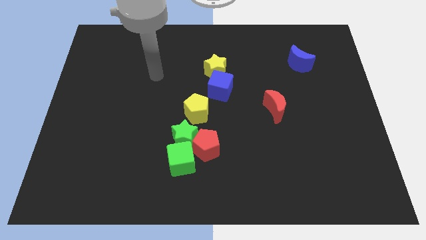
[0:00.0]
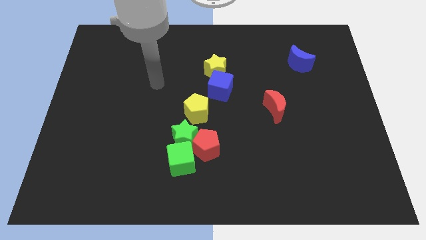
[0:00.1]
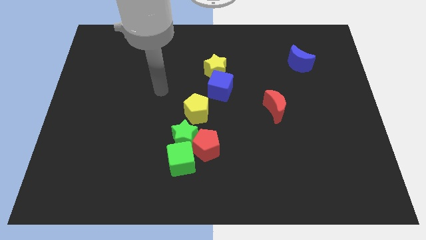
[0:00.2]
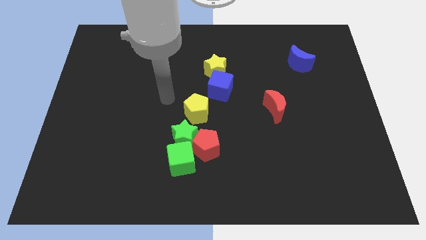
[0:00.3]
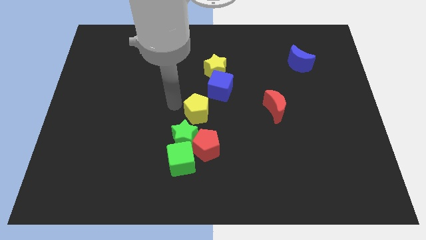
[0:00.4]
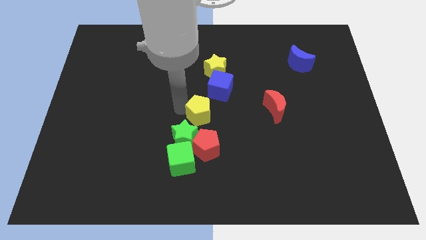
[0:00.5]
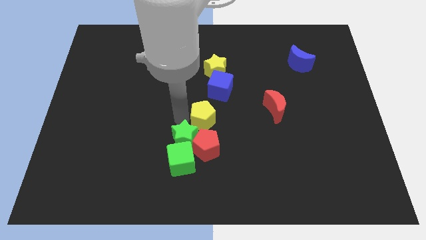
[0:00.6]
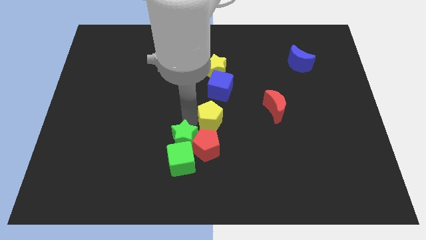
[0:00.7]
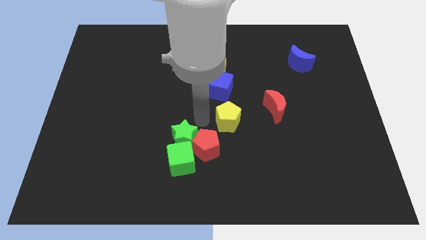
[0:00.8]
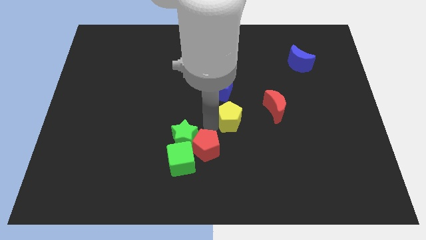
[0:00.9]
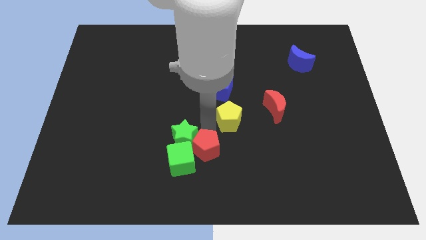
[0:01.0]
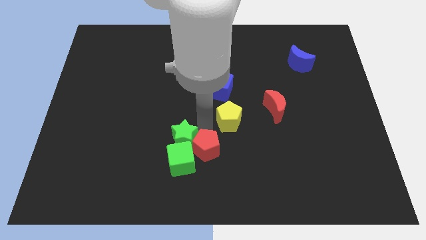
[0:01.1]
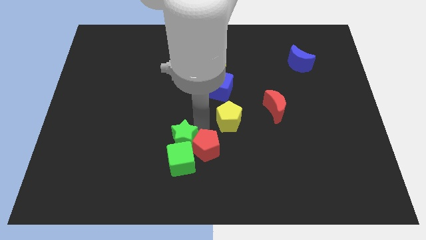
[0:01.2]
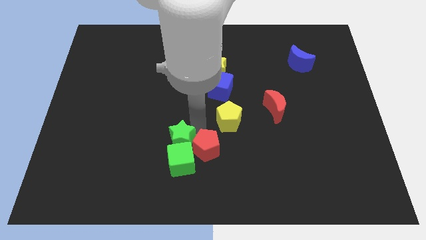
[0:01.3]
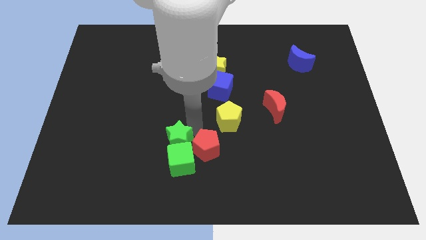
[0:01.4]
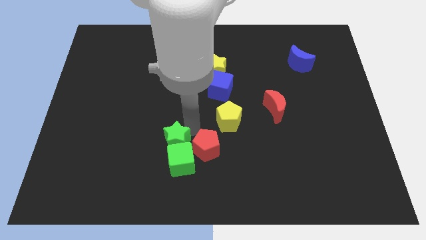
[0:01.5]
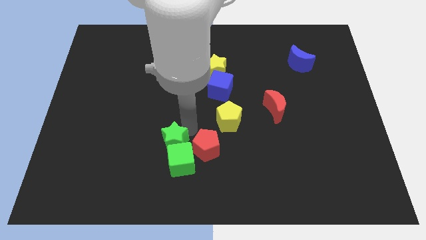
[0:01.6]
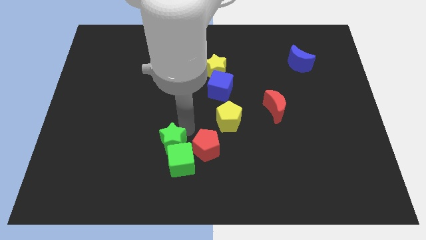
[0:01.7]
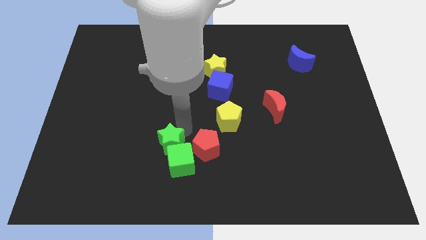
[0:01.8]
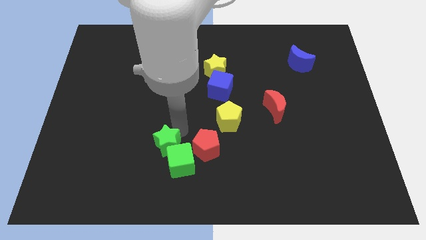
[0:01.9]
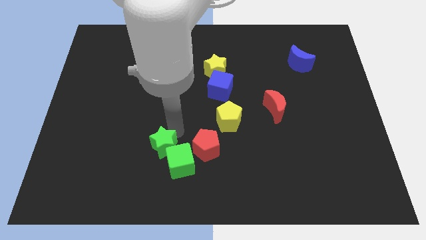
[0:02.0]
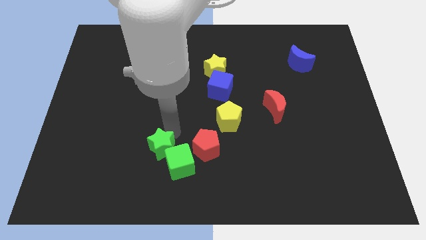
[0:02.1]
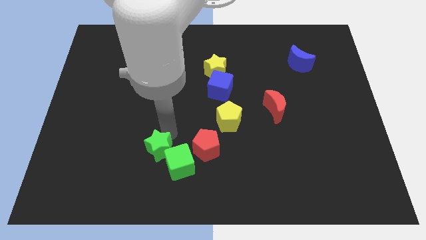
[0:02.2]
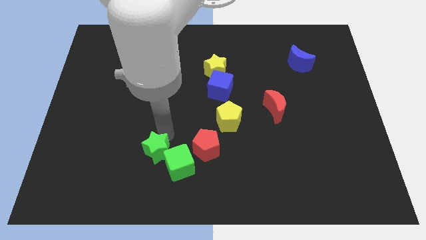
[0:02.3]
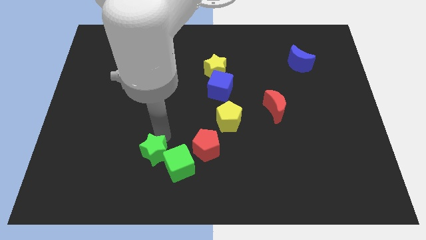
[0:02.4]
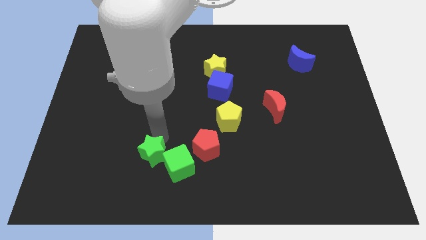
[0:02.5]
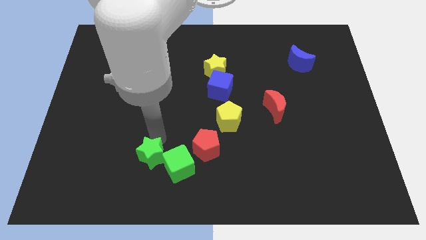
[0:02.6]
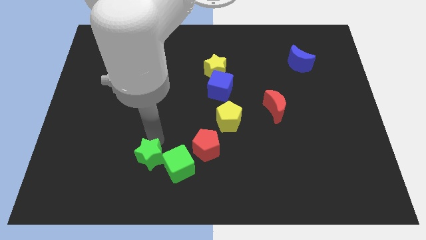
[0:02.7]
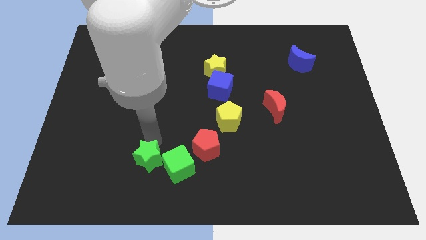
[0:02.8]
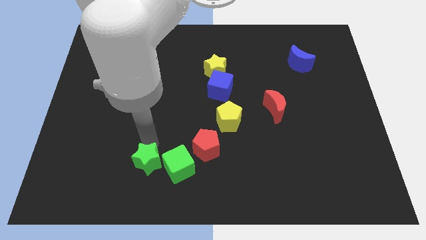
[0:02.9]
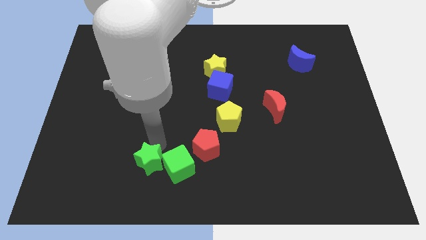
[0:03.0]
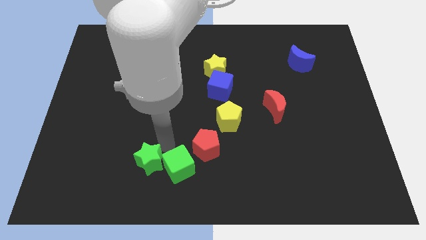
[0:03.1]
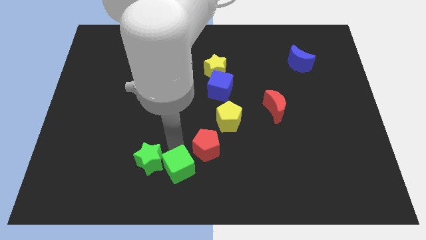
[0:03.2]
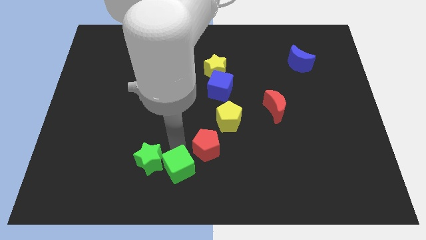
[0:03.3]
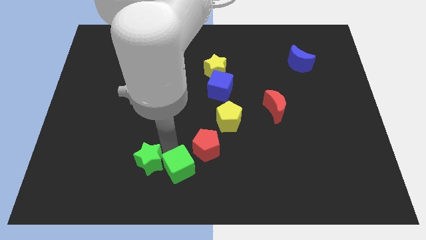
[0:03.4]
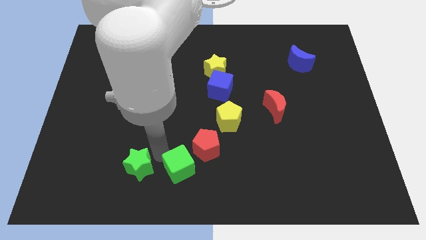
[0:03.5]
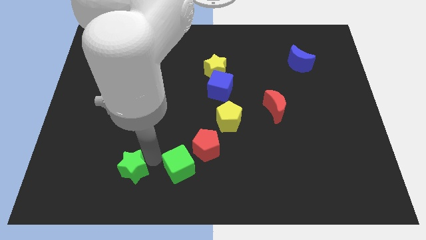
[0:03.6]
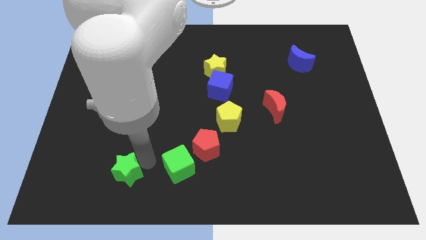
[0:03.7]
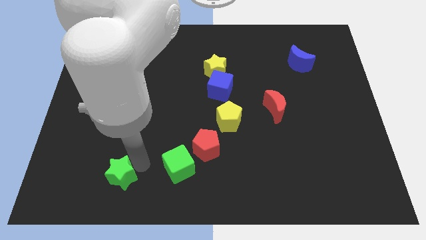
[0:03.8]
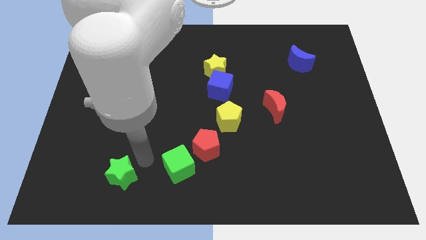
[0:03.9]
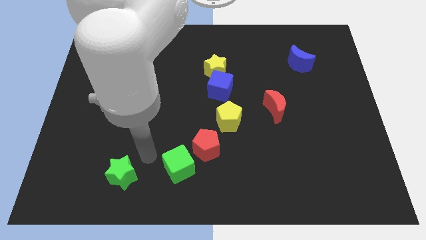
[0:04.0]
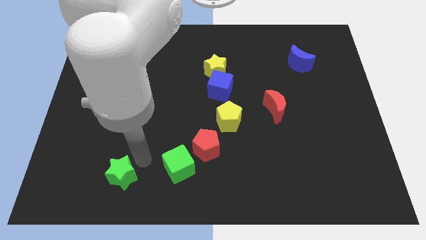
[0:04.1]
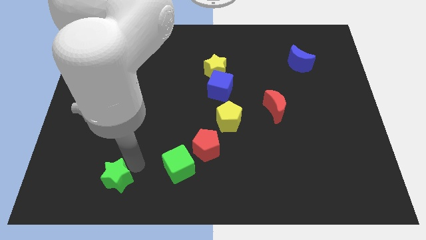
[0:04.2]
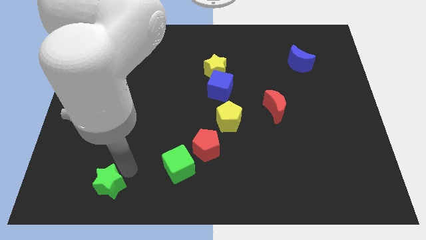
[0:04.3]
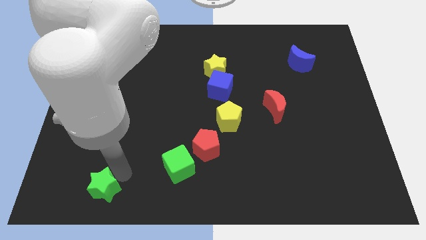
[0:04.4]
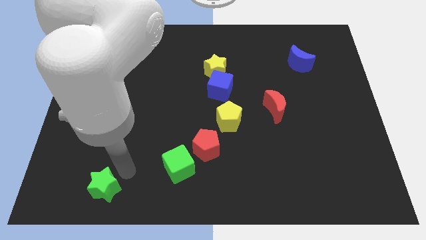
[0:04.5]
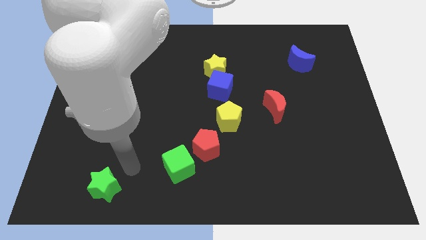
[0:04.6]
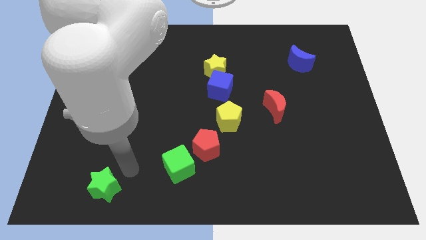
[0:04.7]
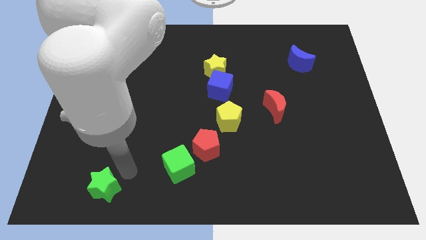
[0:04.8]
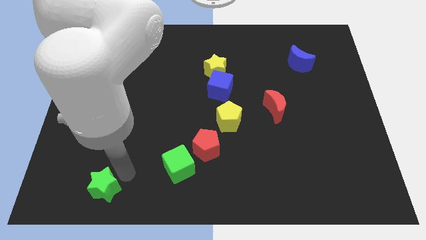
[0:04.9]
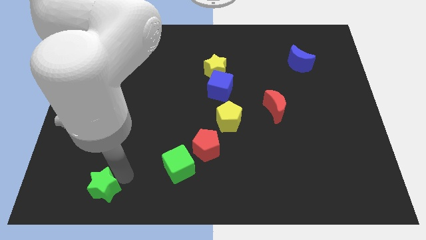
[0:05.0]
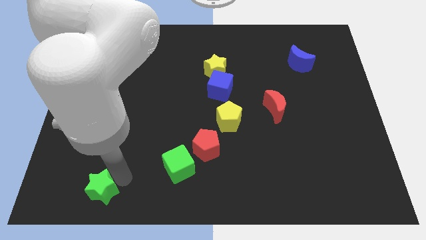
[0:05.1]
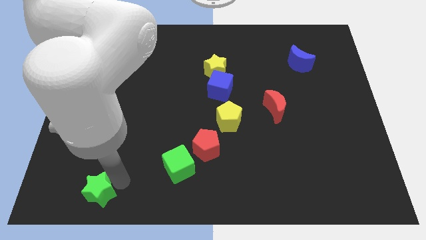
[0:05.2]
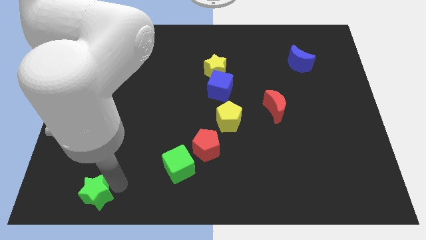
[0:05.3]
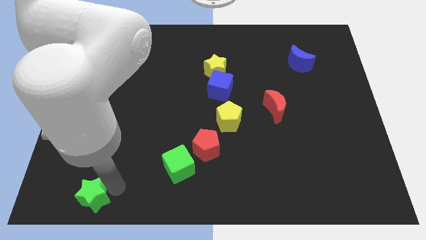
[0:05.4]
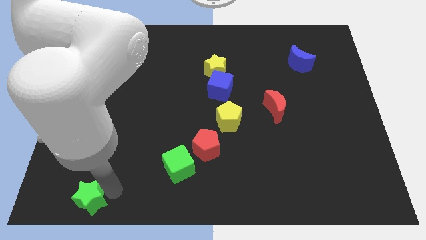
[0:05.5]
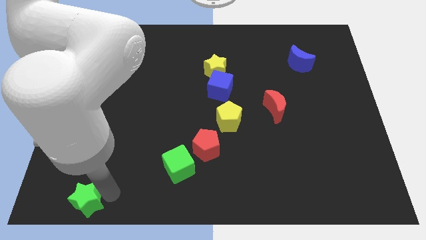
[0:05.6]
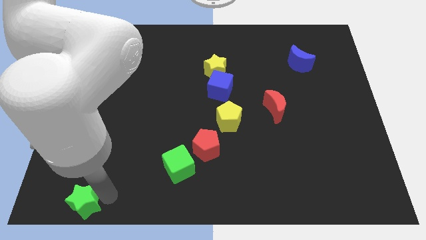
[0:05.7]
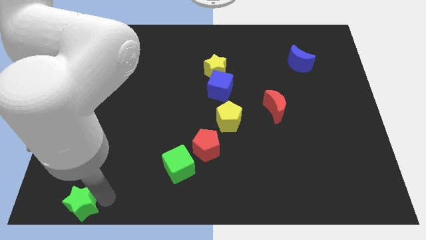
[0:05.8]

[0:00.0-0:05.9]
slide the green star to the bottom left corner

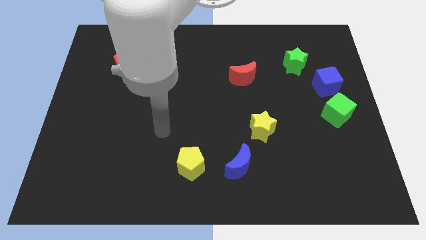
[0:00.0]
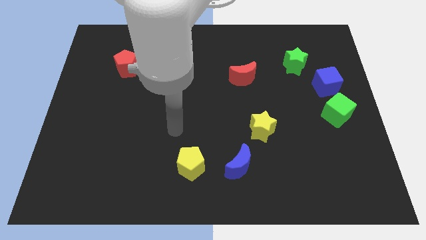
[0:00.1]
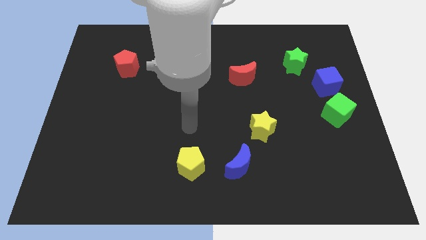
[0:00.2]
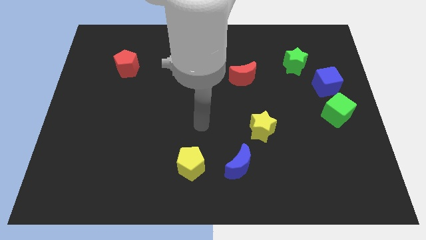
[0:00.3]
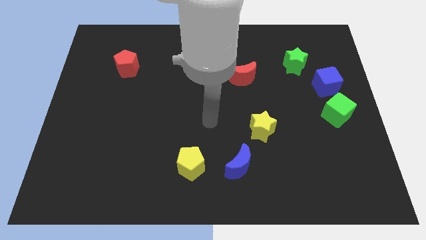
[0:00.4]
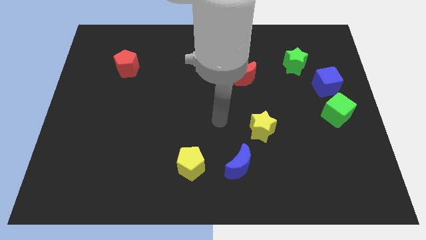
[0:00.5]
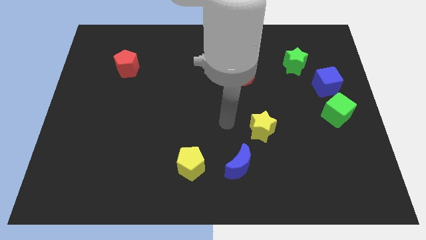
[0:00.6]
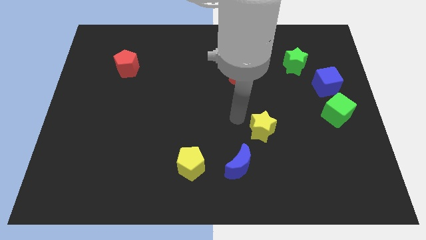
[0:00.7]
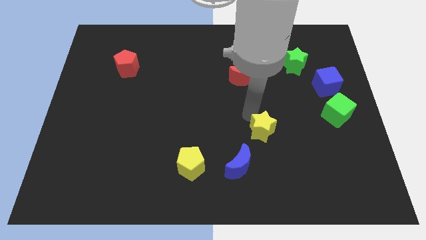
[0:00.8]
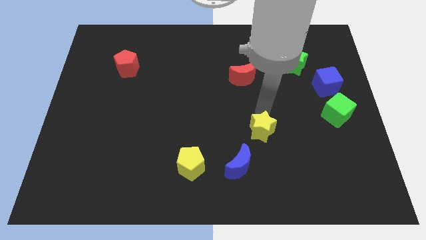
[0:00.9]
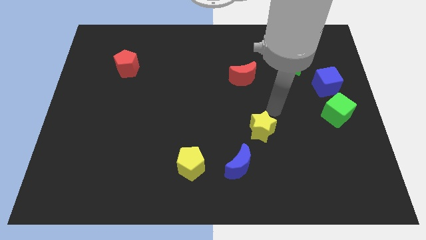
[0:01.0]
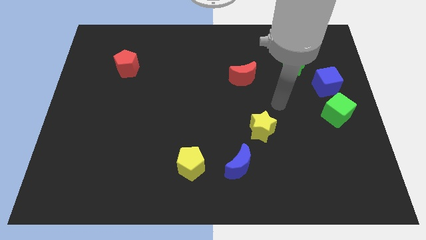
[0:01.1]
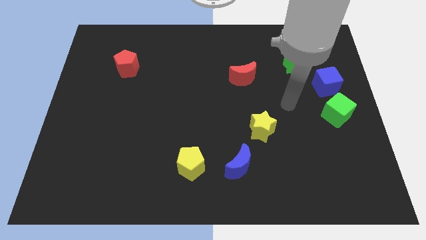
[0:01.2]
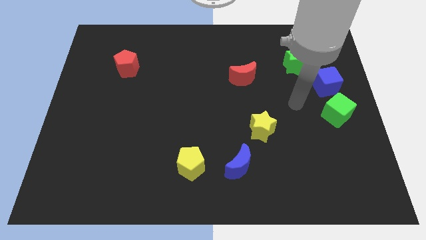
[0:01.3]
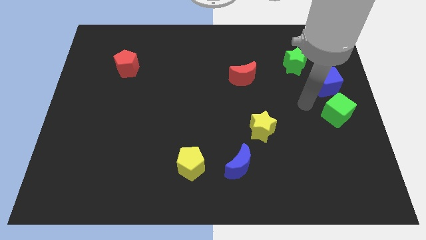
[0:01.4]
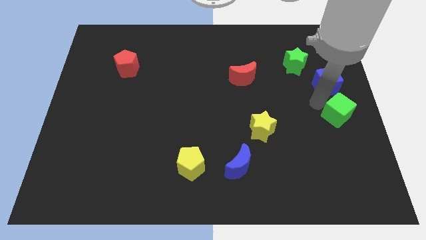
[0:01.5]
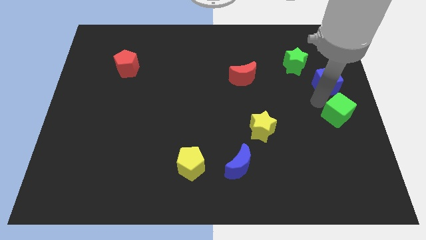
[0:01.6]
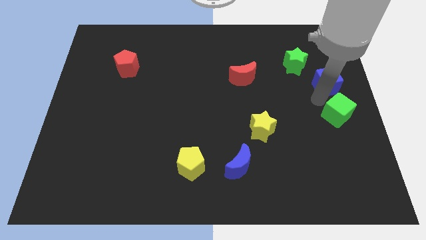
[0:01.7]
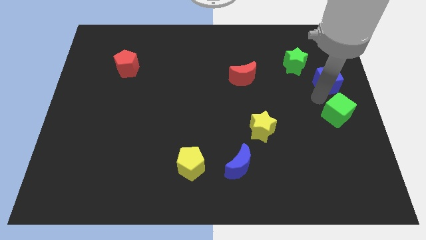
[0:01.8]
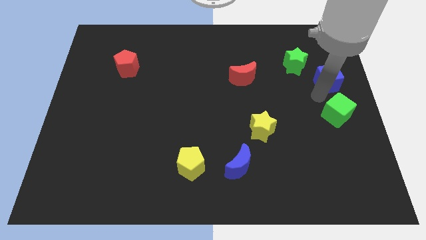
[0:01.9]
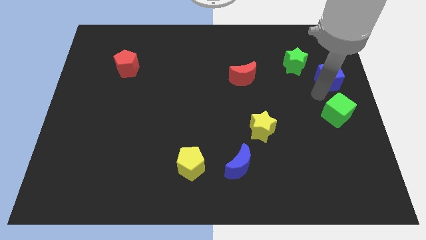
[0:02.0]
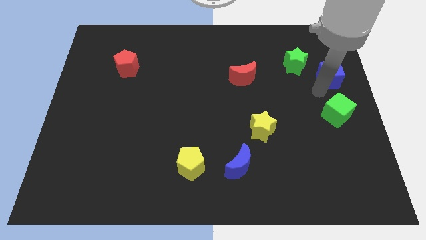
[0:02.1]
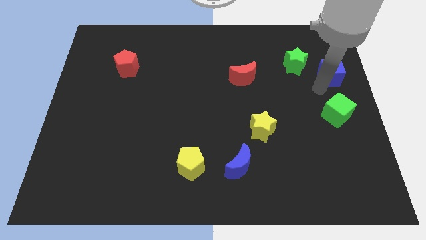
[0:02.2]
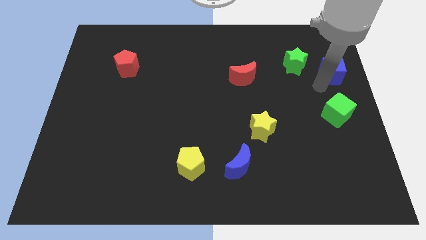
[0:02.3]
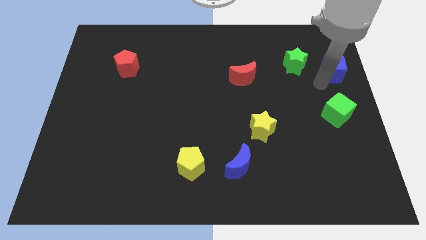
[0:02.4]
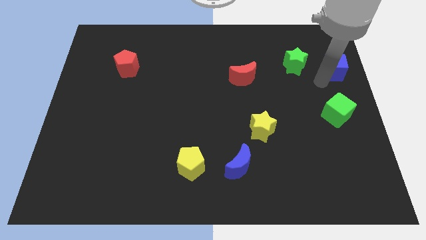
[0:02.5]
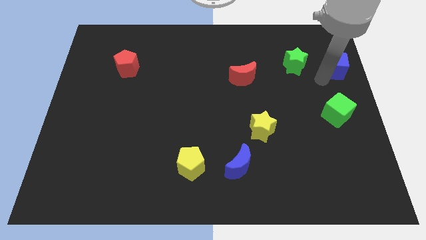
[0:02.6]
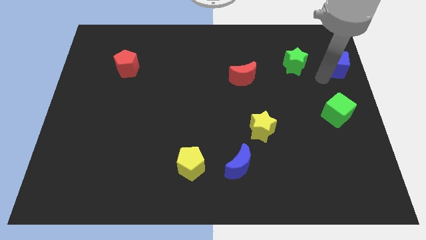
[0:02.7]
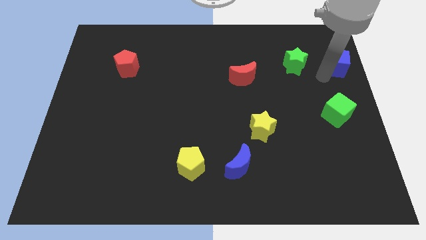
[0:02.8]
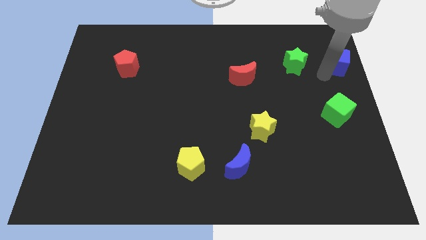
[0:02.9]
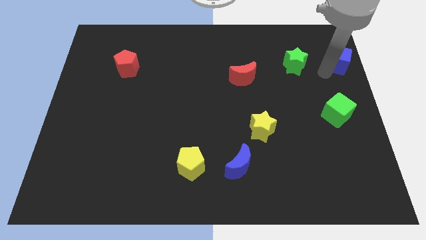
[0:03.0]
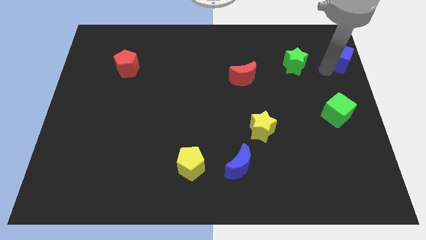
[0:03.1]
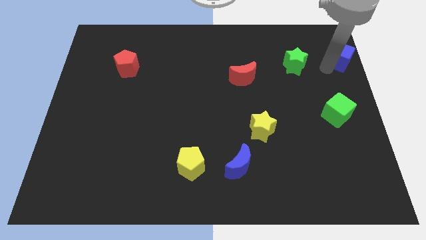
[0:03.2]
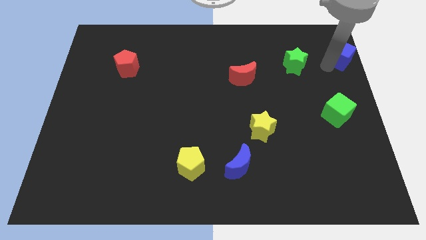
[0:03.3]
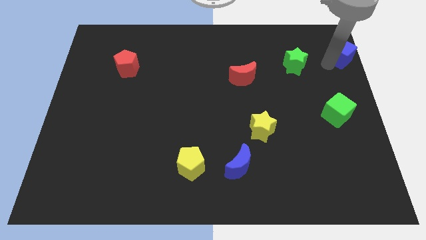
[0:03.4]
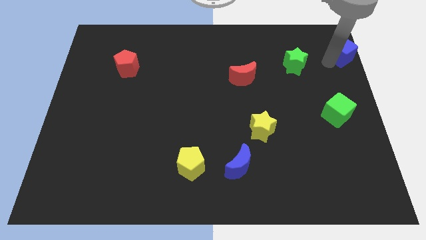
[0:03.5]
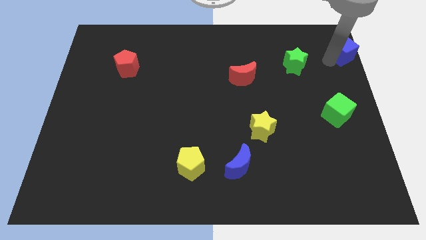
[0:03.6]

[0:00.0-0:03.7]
move the blue cube to the top right corner
